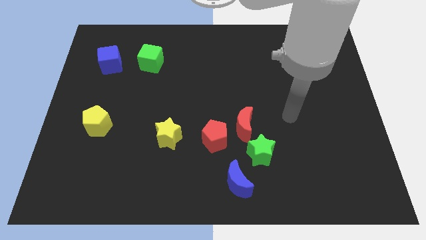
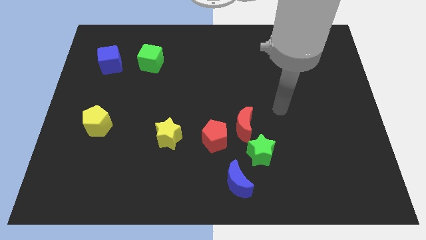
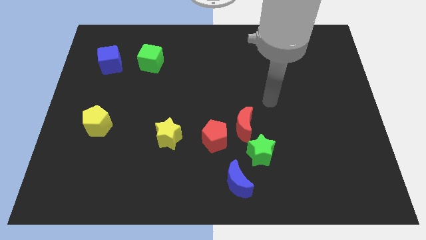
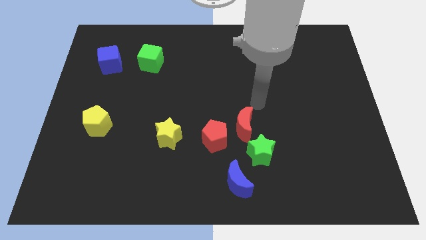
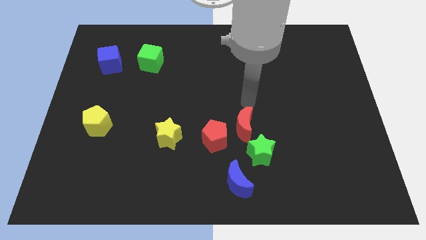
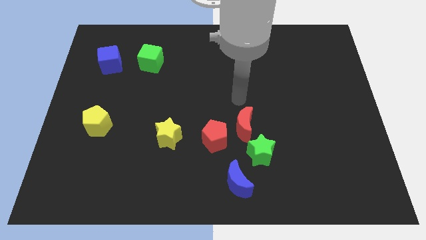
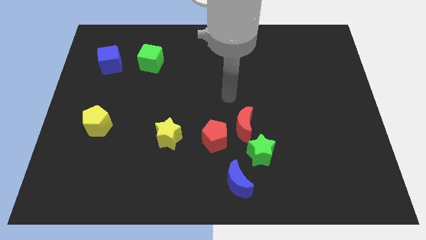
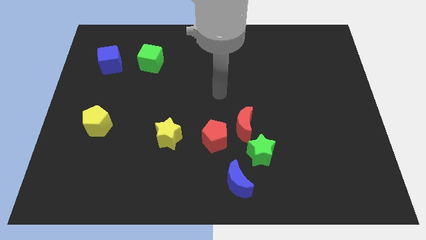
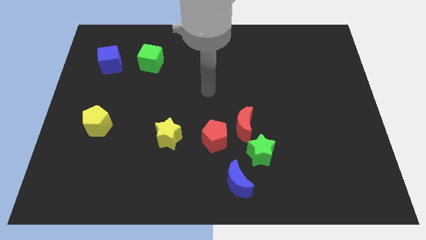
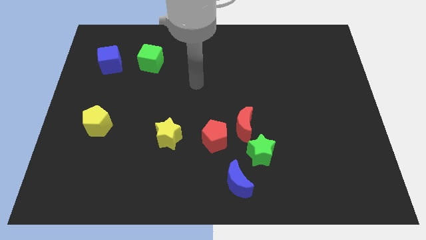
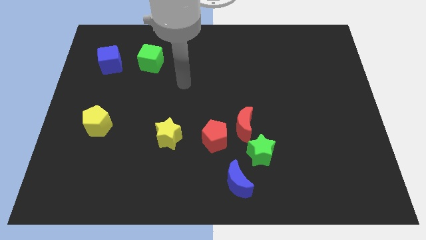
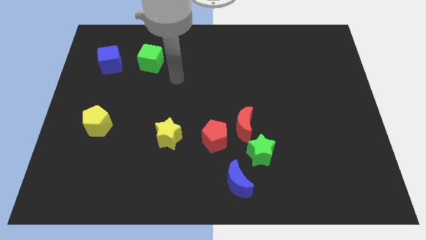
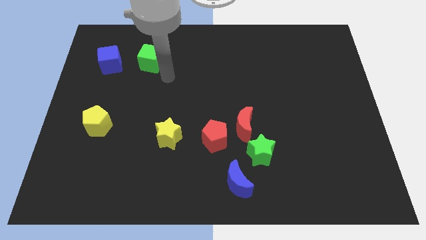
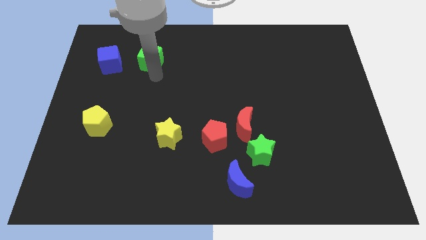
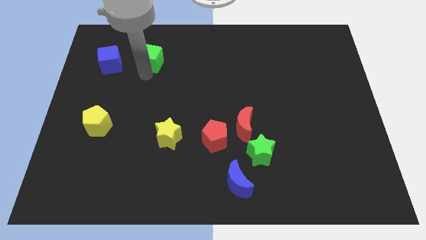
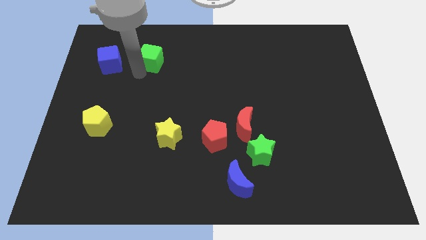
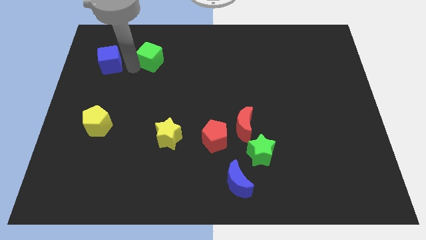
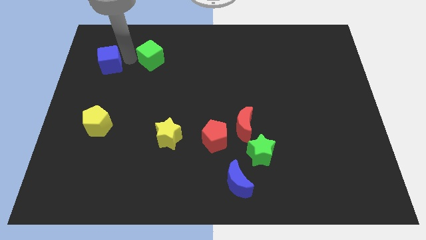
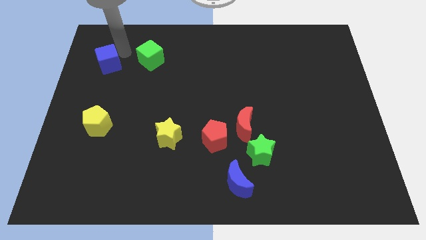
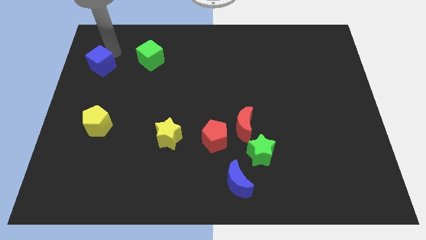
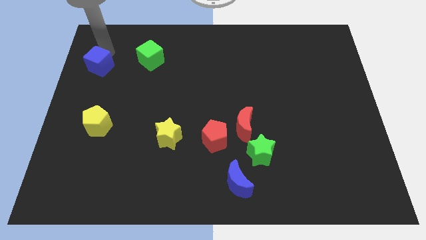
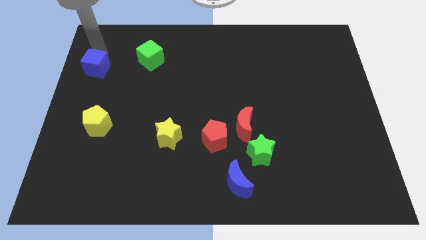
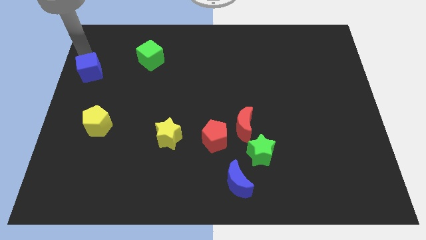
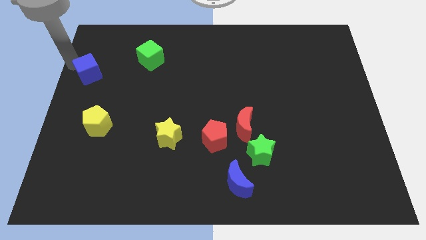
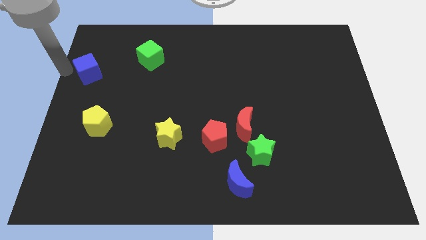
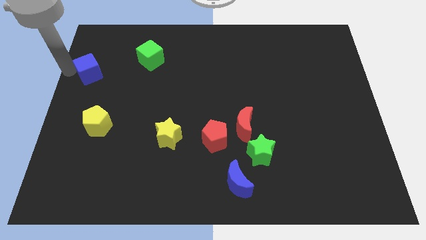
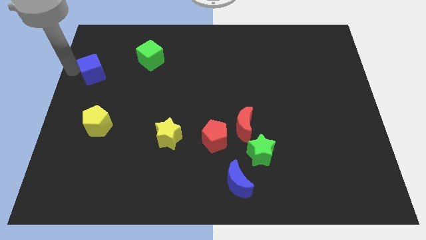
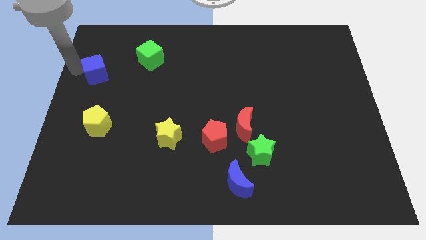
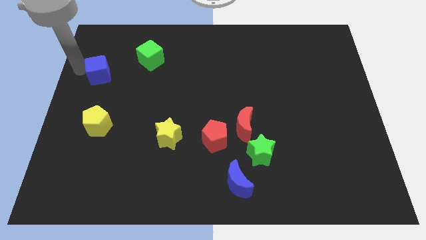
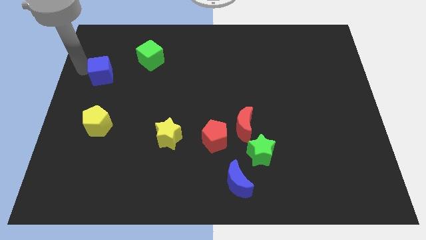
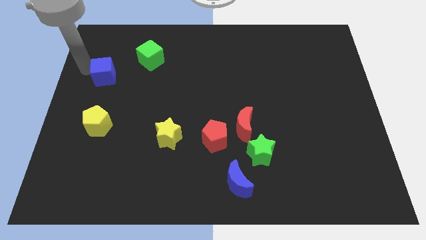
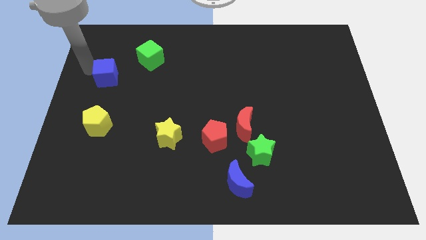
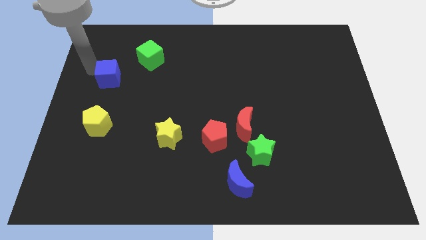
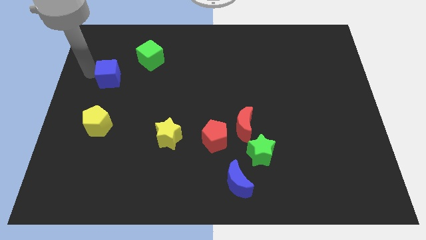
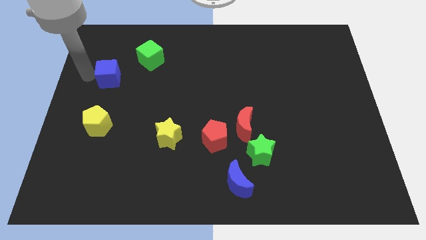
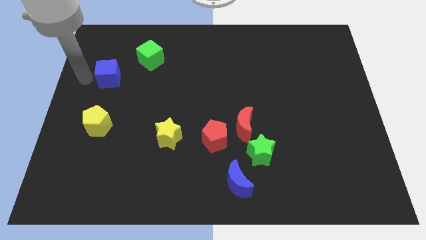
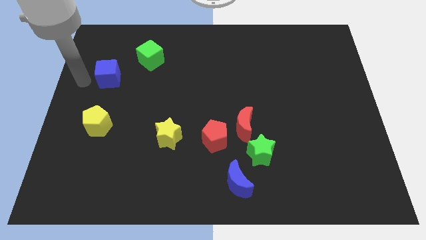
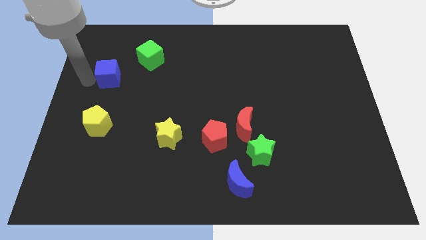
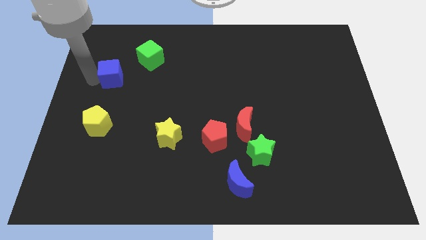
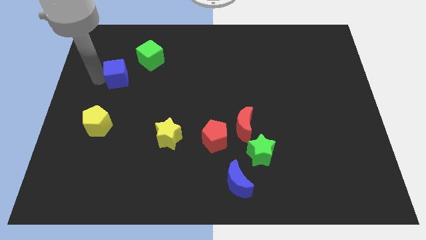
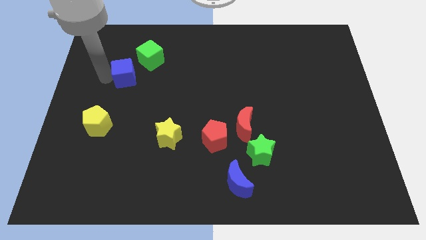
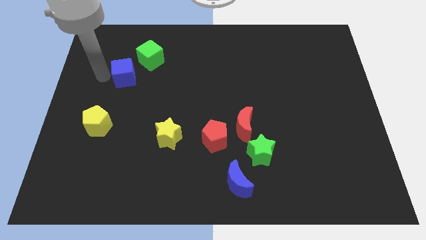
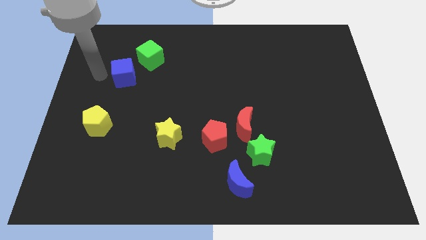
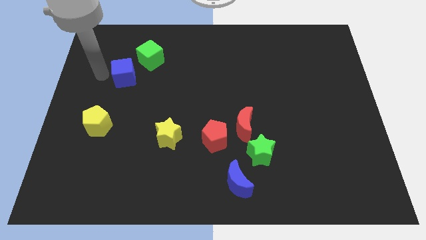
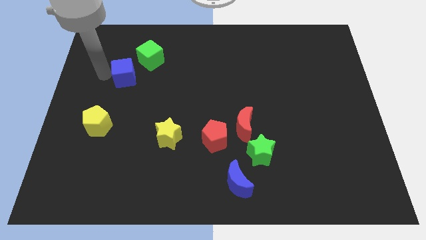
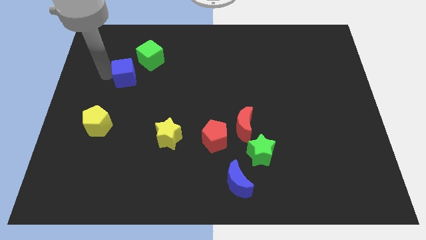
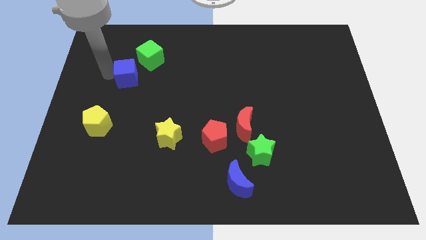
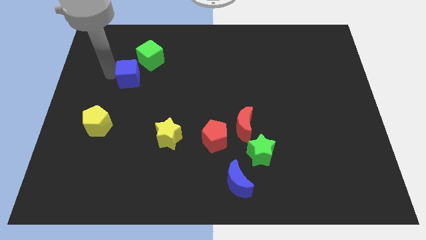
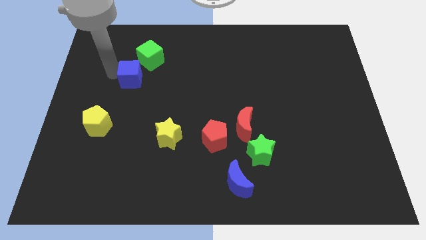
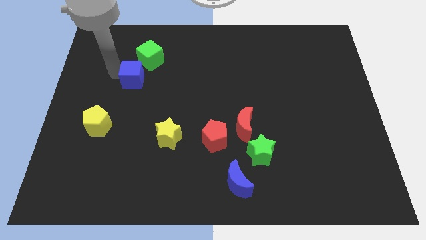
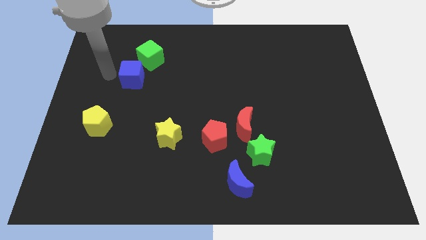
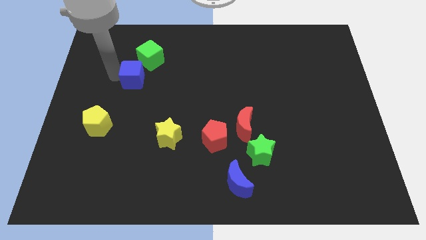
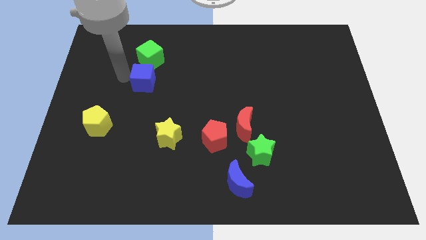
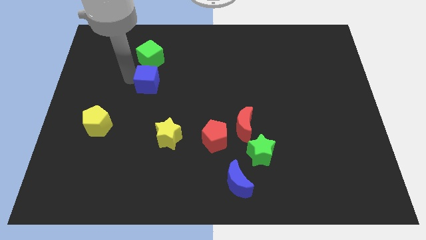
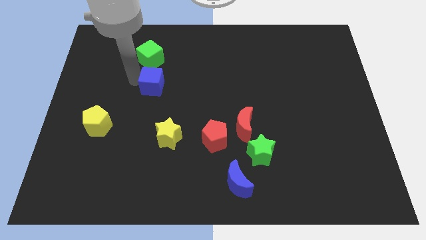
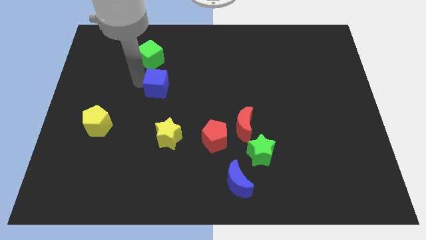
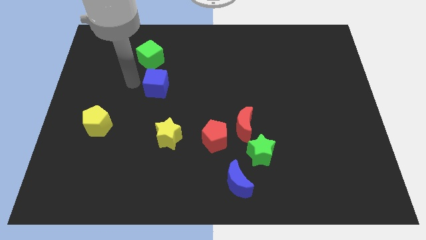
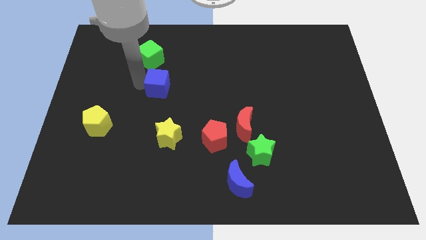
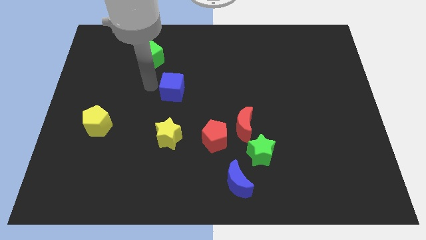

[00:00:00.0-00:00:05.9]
move the blue cube to the middle of the board
